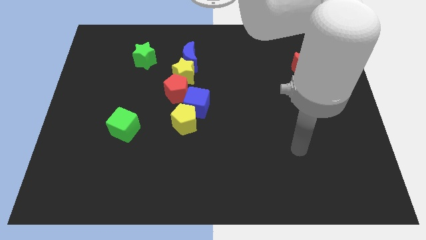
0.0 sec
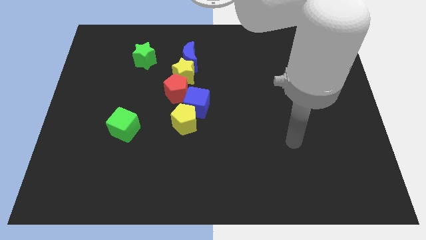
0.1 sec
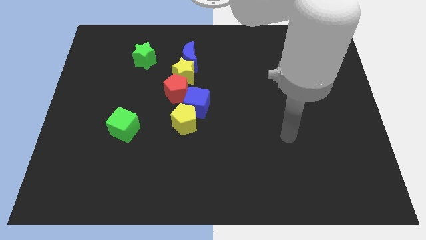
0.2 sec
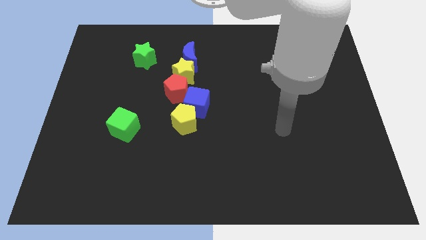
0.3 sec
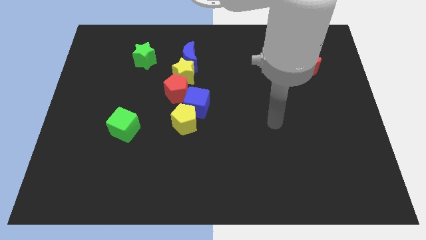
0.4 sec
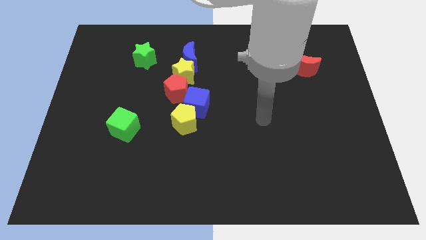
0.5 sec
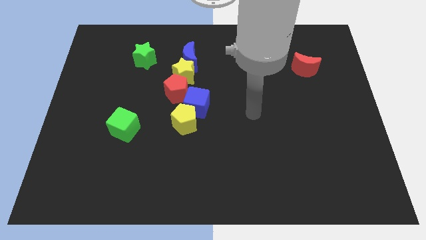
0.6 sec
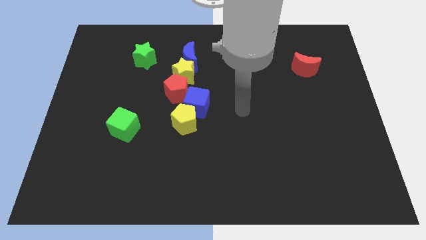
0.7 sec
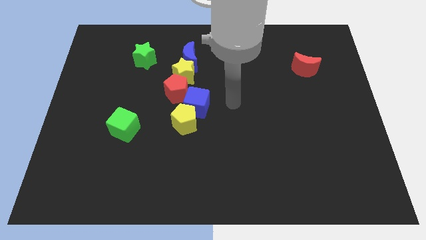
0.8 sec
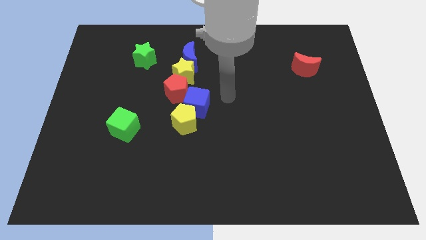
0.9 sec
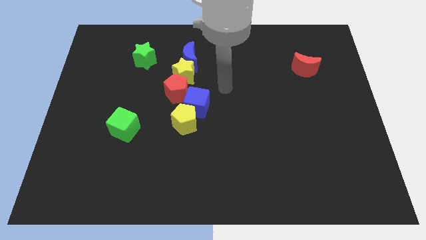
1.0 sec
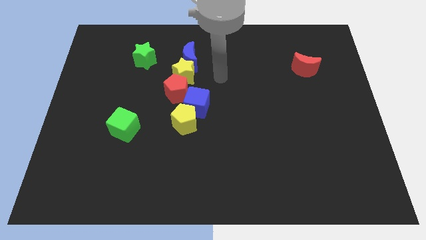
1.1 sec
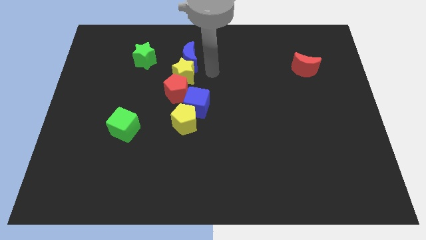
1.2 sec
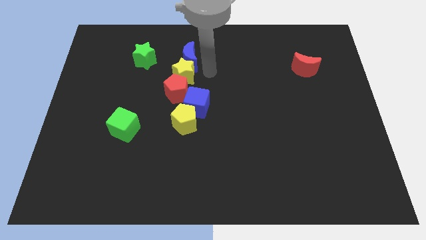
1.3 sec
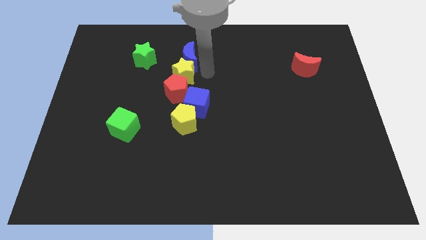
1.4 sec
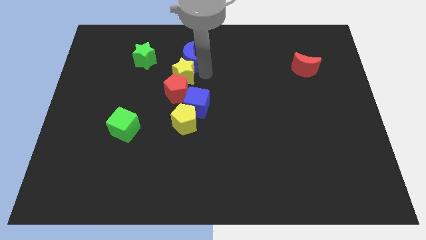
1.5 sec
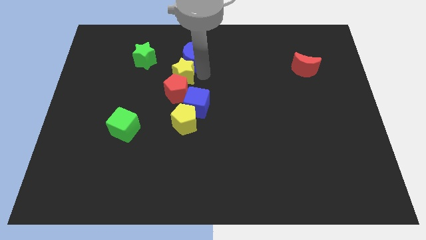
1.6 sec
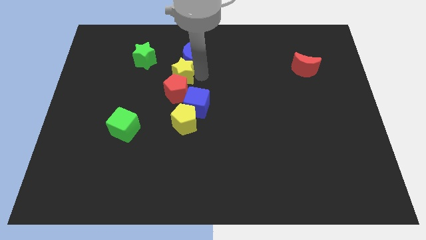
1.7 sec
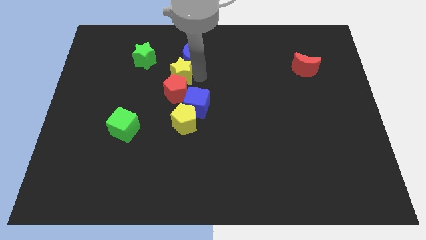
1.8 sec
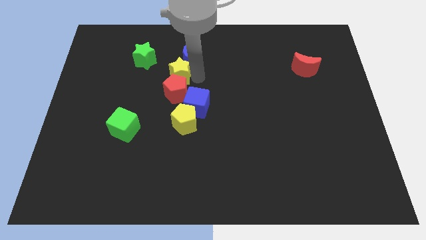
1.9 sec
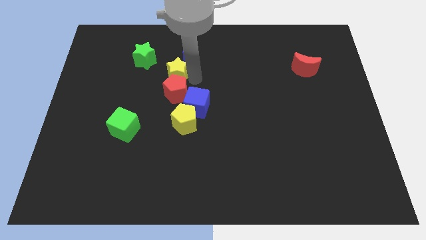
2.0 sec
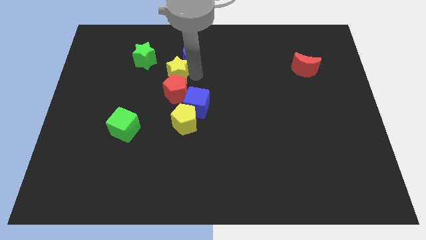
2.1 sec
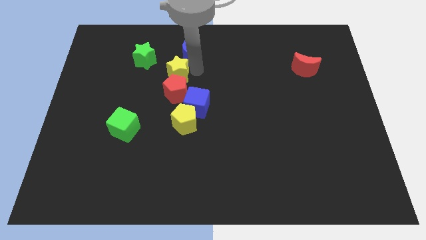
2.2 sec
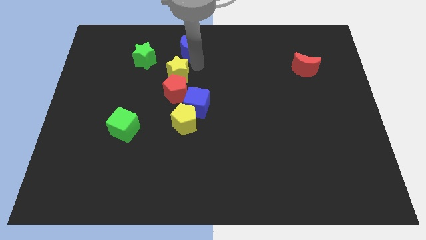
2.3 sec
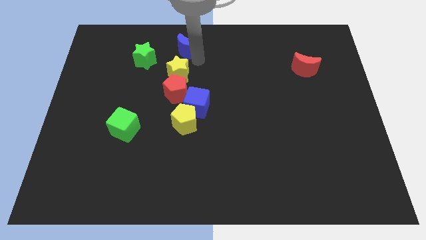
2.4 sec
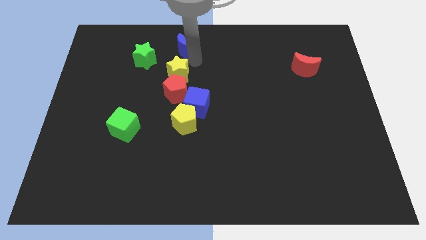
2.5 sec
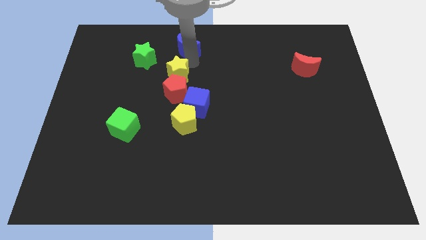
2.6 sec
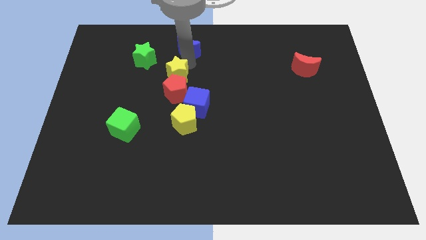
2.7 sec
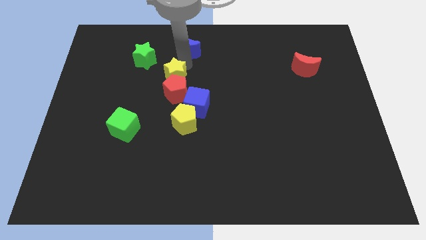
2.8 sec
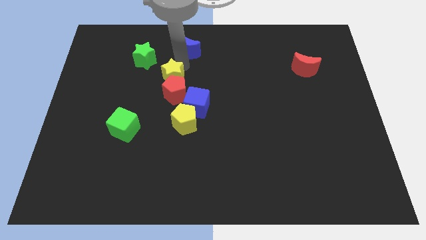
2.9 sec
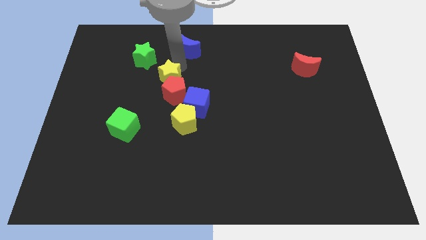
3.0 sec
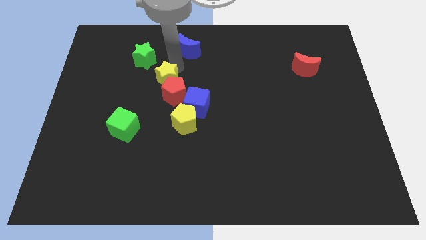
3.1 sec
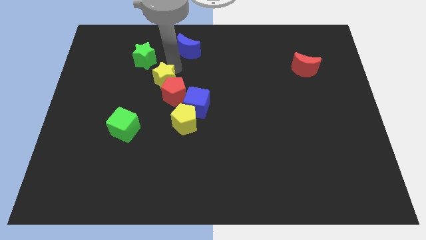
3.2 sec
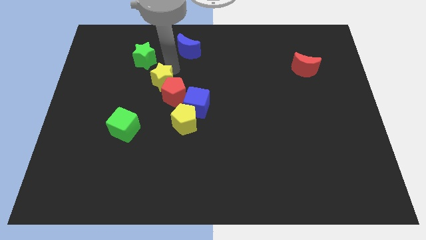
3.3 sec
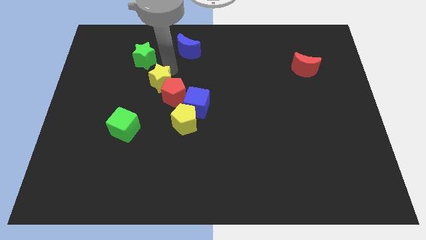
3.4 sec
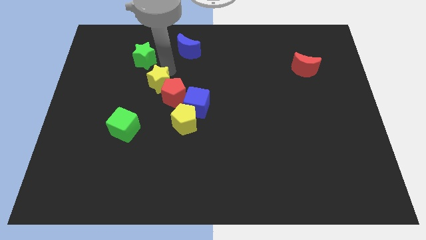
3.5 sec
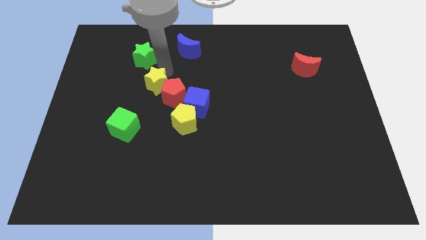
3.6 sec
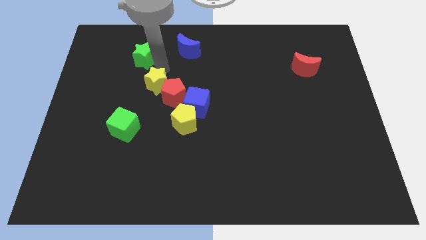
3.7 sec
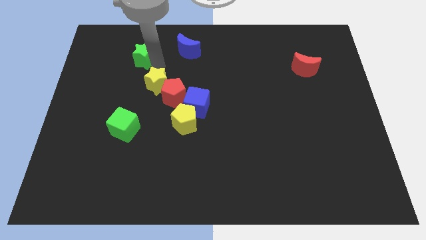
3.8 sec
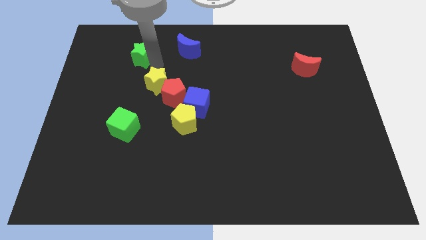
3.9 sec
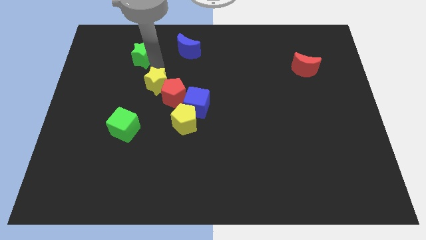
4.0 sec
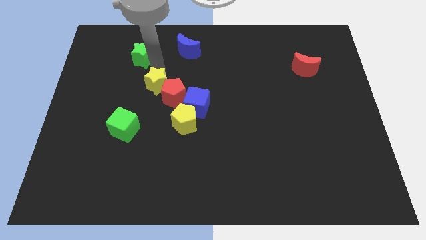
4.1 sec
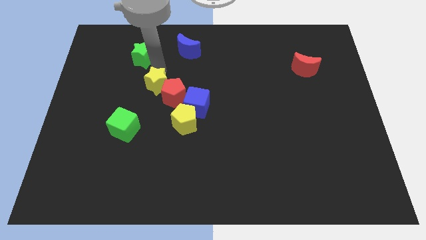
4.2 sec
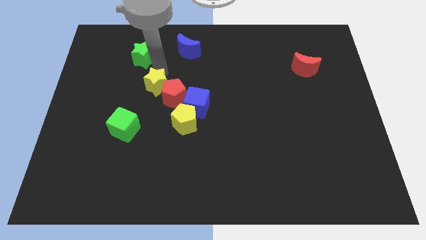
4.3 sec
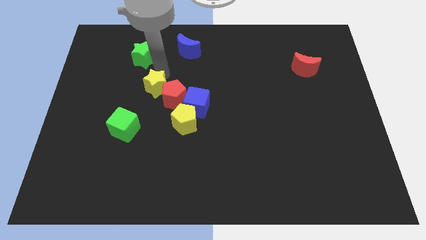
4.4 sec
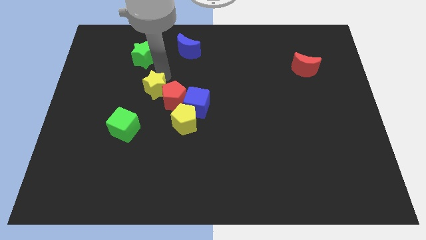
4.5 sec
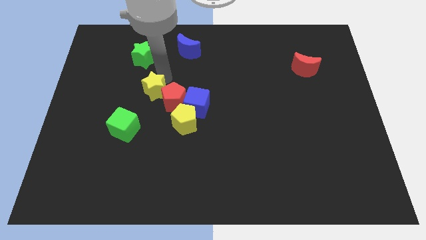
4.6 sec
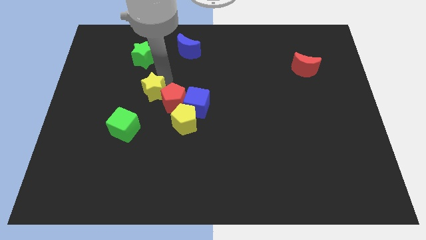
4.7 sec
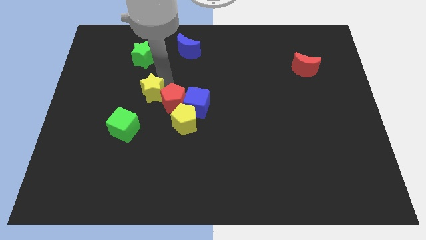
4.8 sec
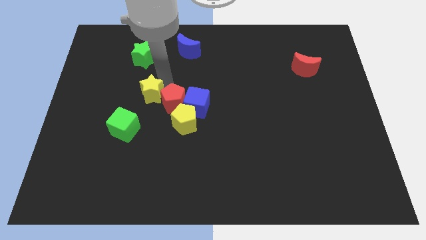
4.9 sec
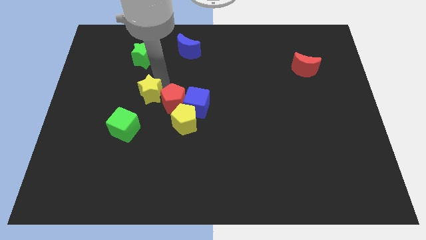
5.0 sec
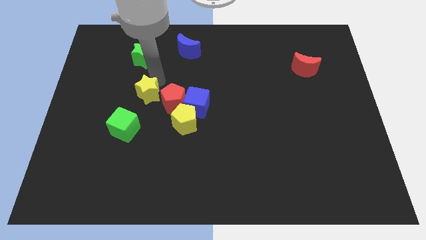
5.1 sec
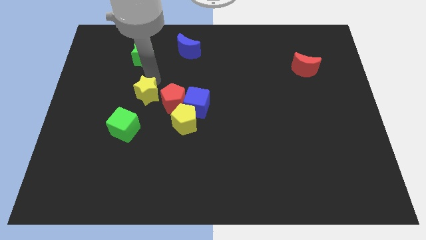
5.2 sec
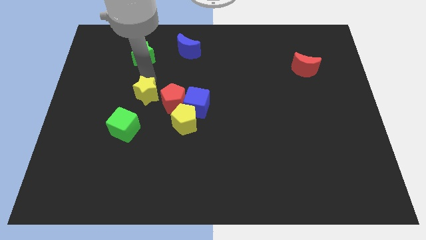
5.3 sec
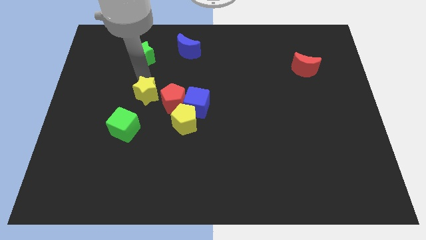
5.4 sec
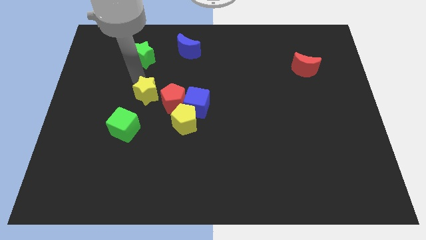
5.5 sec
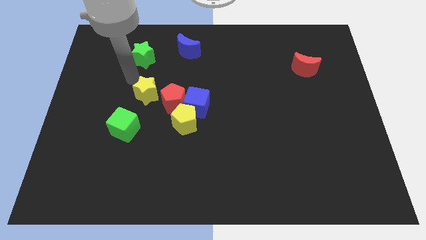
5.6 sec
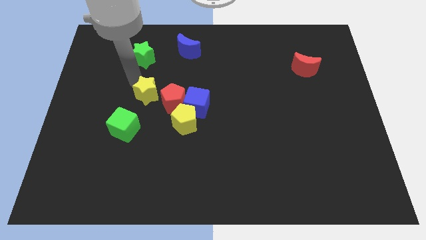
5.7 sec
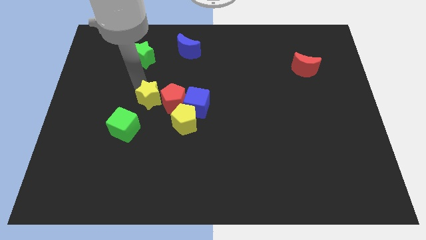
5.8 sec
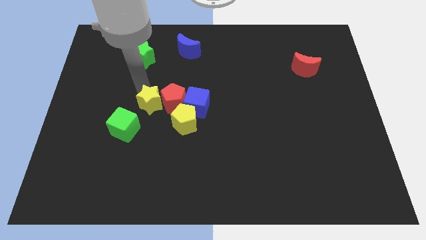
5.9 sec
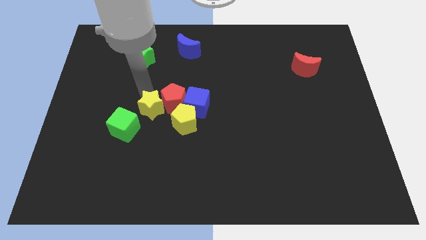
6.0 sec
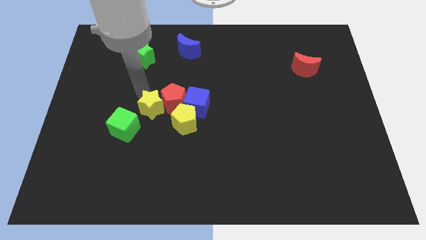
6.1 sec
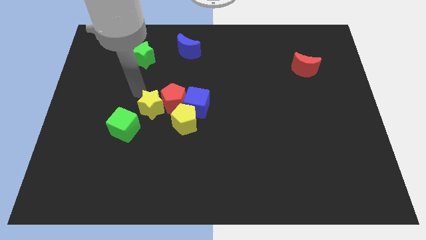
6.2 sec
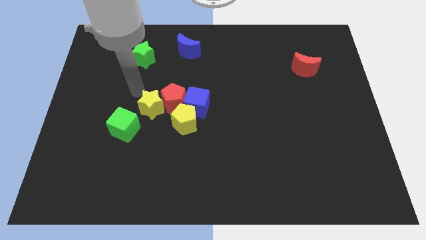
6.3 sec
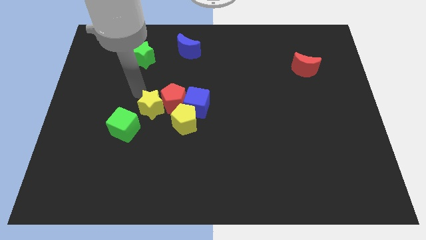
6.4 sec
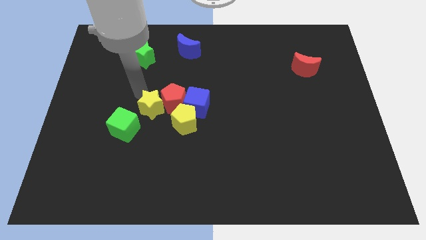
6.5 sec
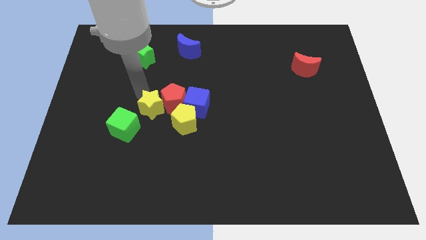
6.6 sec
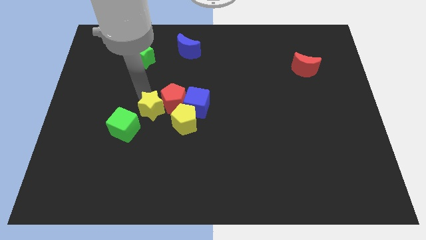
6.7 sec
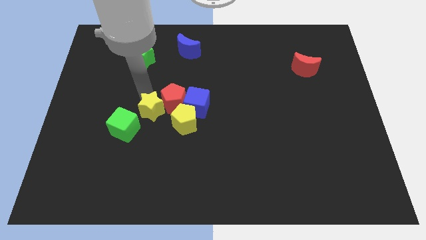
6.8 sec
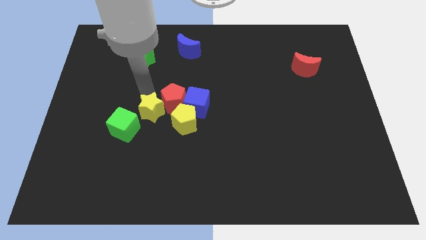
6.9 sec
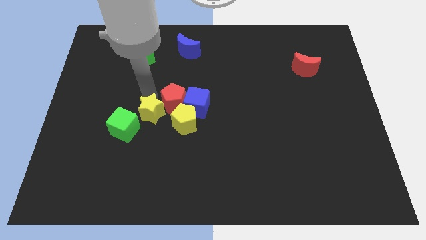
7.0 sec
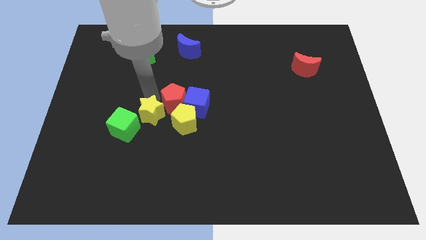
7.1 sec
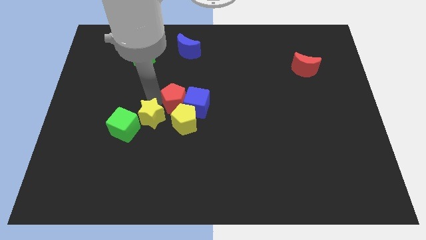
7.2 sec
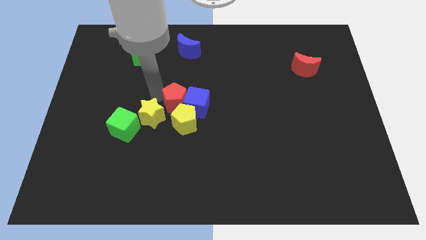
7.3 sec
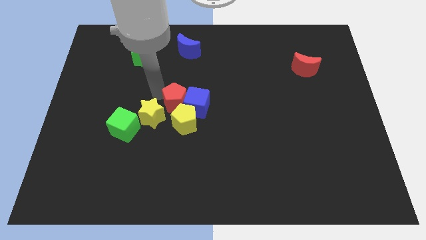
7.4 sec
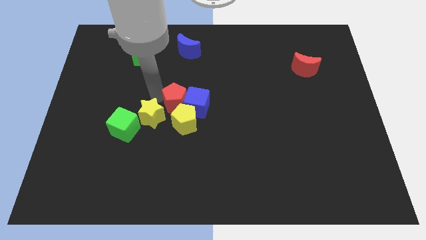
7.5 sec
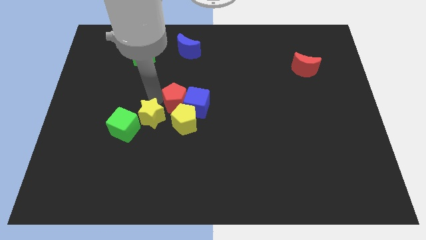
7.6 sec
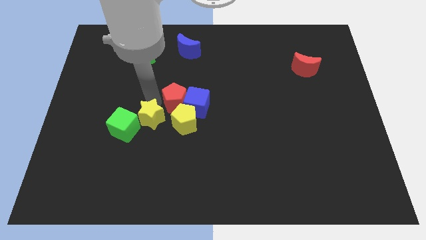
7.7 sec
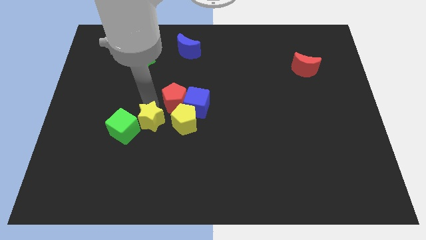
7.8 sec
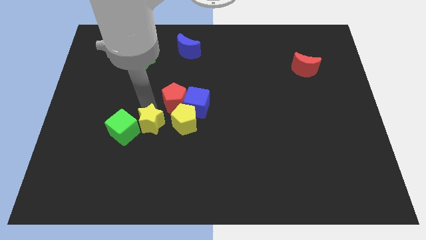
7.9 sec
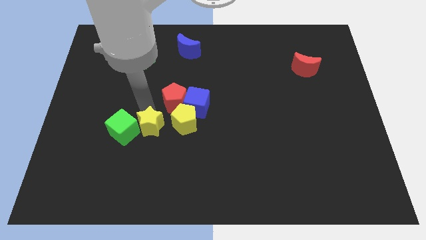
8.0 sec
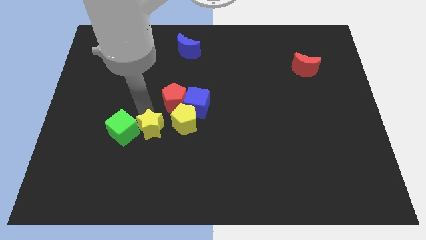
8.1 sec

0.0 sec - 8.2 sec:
slide the yellow star to the bottom right side of the green cube
